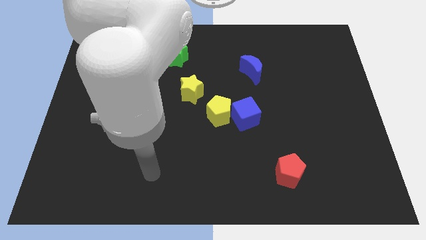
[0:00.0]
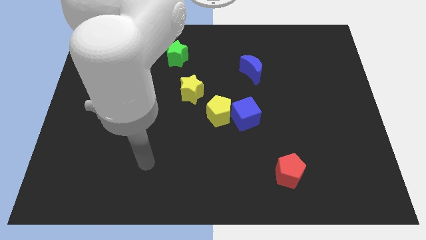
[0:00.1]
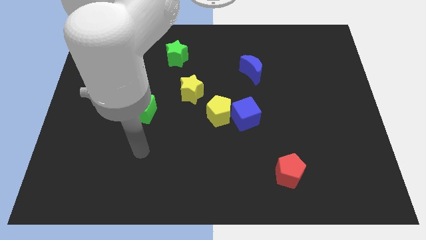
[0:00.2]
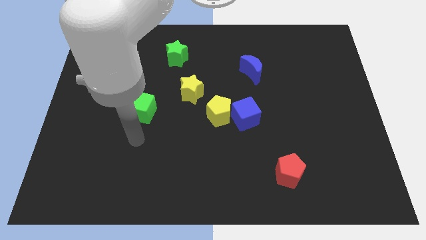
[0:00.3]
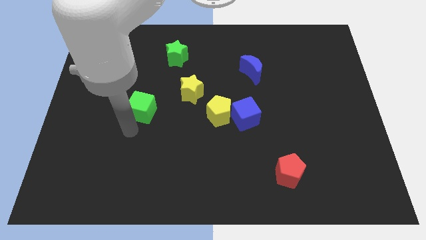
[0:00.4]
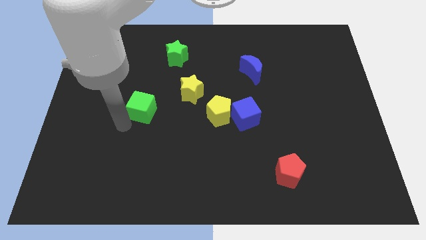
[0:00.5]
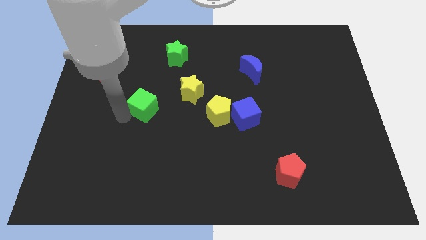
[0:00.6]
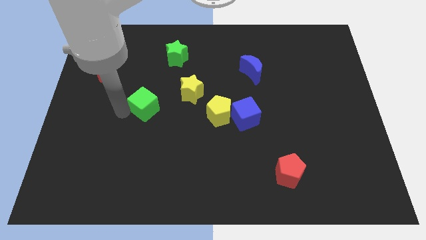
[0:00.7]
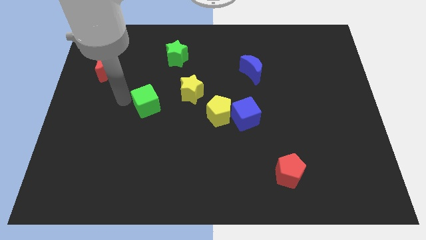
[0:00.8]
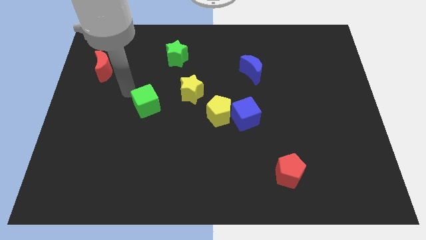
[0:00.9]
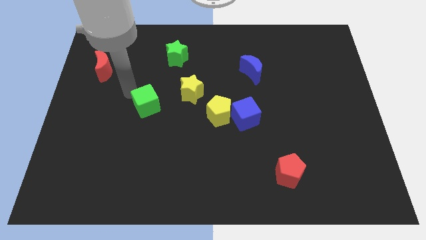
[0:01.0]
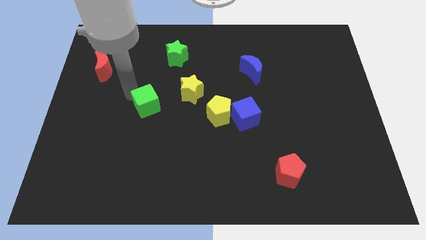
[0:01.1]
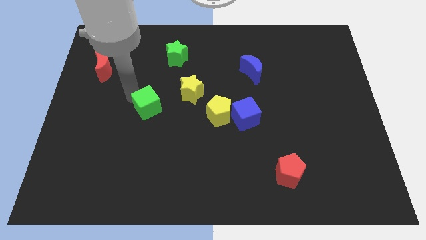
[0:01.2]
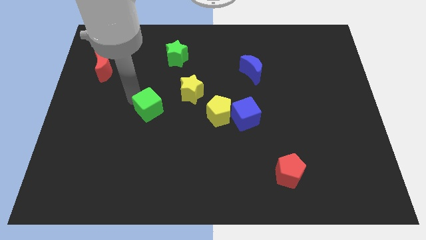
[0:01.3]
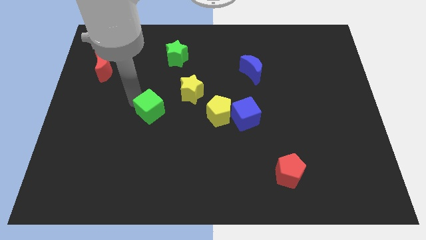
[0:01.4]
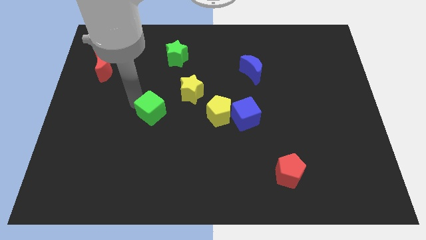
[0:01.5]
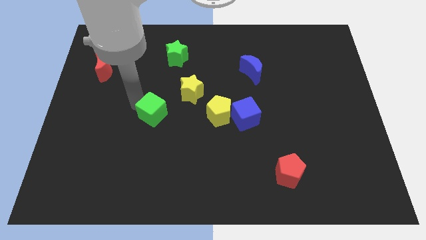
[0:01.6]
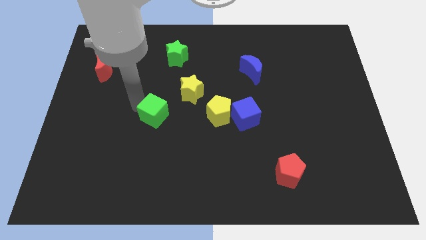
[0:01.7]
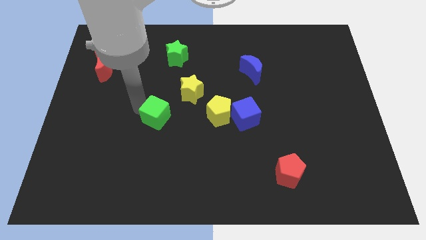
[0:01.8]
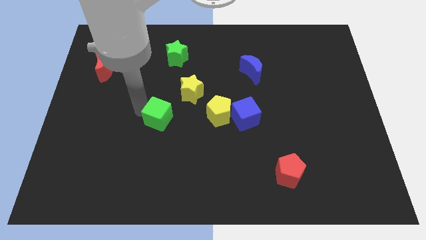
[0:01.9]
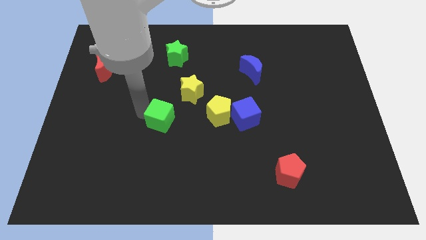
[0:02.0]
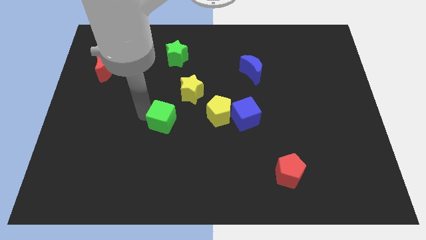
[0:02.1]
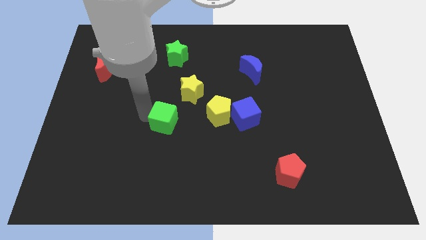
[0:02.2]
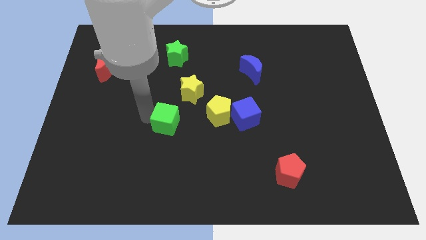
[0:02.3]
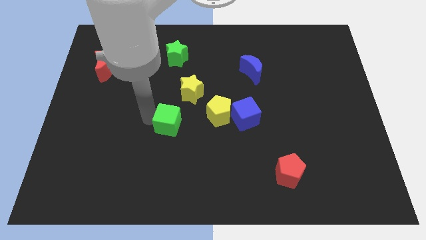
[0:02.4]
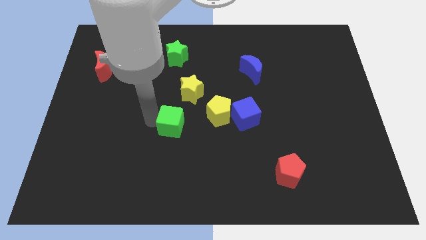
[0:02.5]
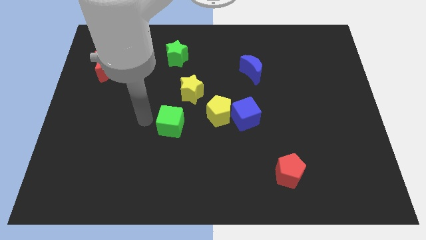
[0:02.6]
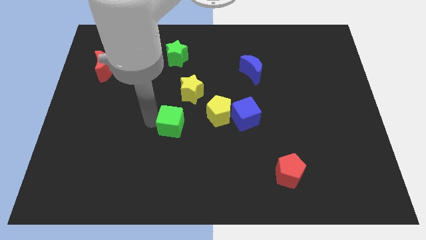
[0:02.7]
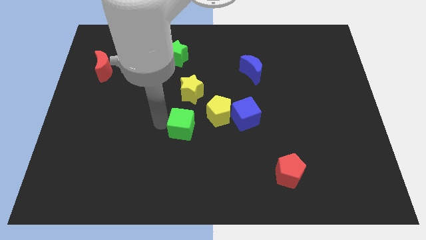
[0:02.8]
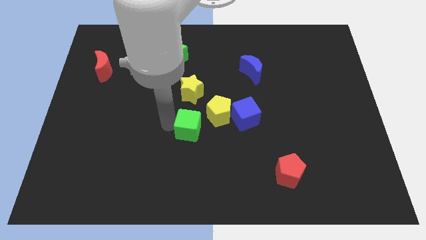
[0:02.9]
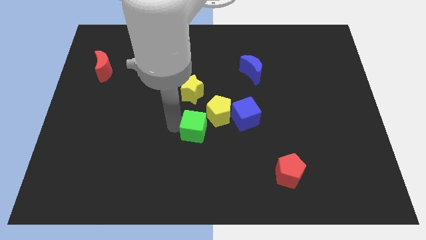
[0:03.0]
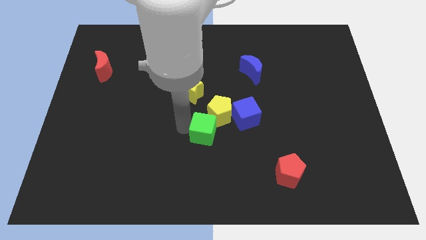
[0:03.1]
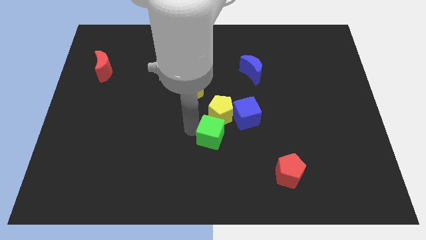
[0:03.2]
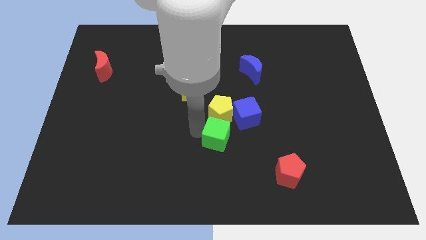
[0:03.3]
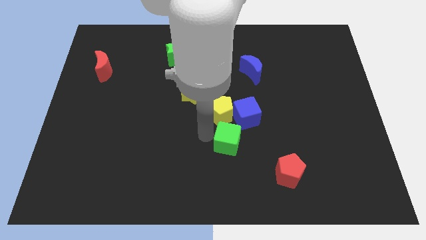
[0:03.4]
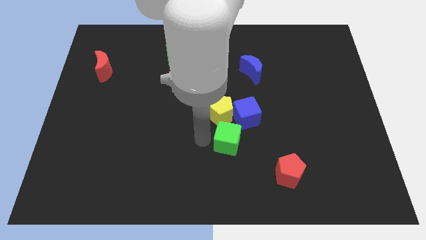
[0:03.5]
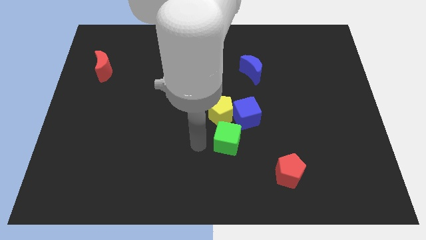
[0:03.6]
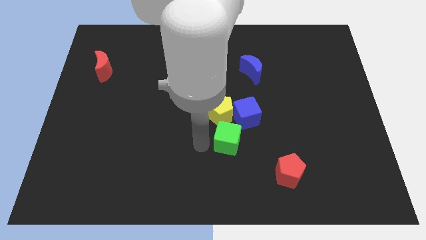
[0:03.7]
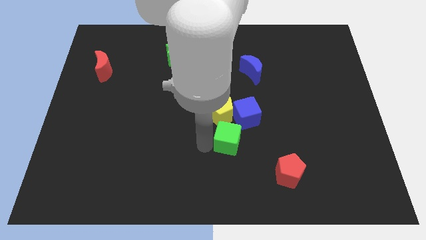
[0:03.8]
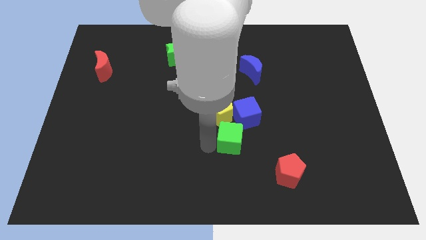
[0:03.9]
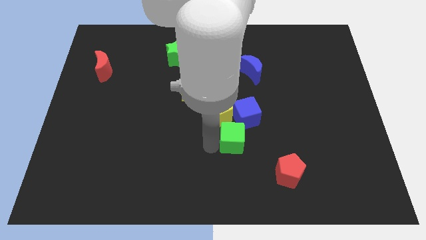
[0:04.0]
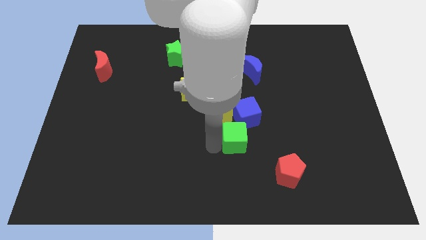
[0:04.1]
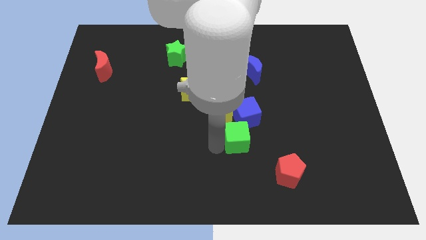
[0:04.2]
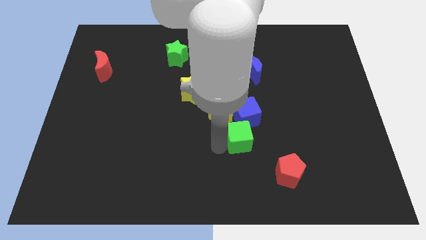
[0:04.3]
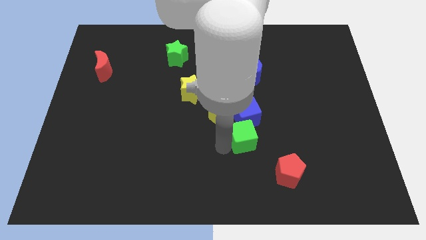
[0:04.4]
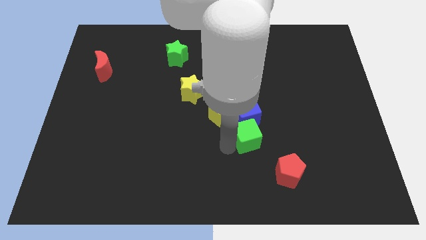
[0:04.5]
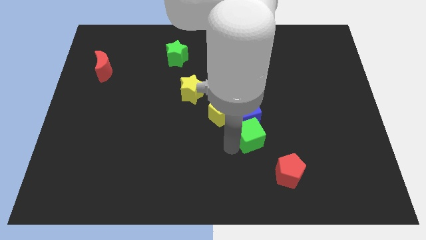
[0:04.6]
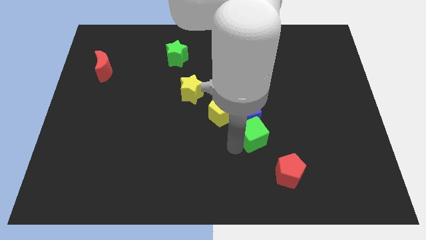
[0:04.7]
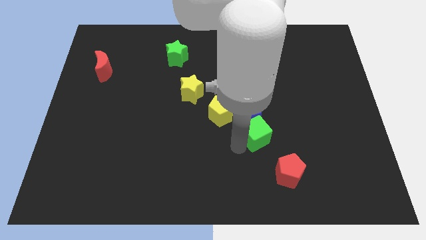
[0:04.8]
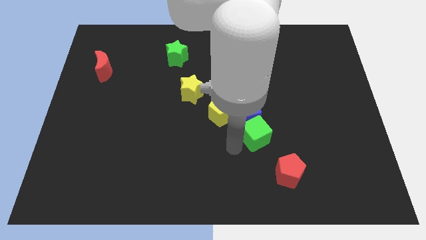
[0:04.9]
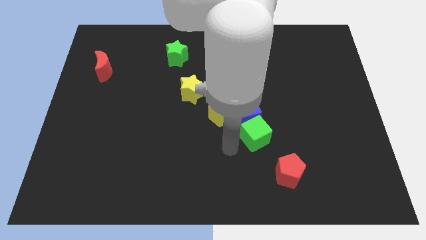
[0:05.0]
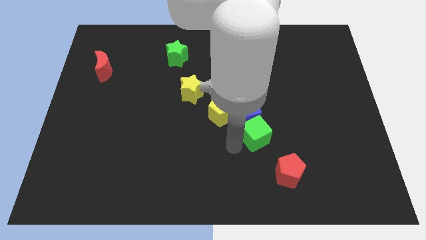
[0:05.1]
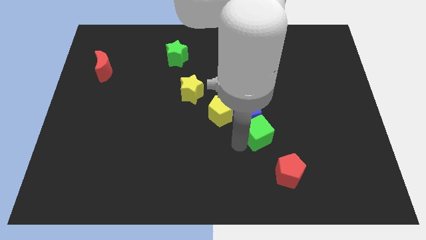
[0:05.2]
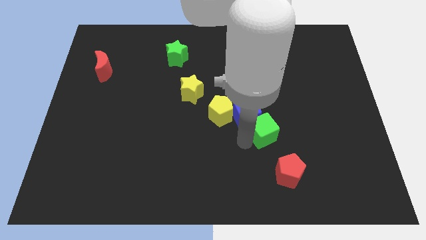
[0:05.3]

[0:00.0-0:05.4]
put the green cube to the right of the blue cube

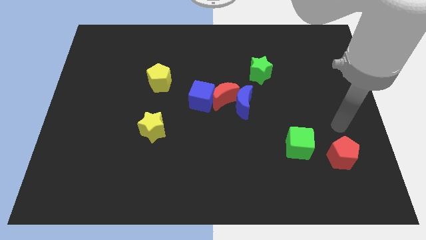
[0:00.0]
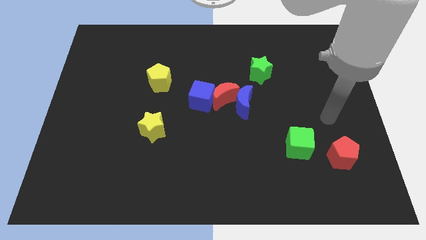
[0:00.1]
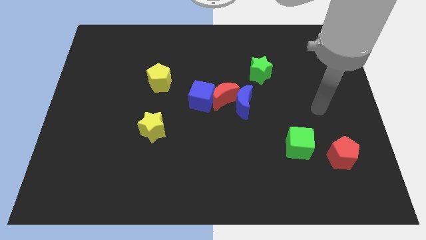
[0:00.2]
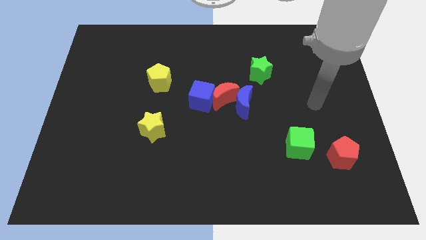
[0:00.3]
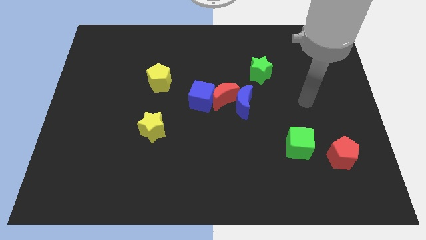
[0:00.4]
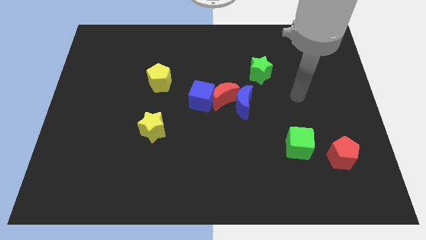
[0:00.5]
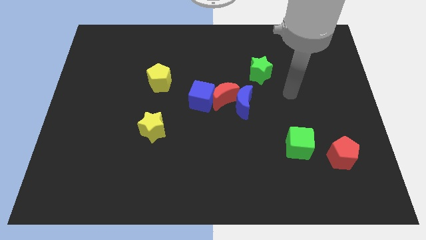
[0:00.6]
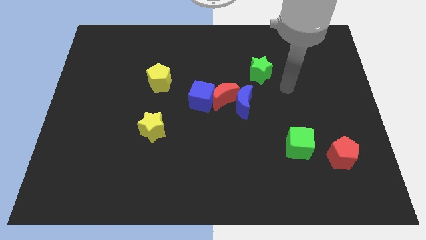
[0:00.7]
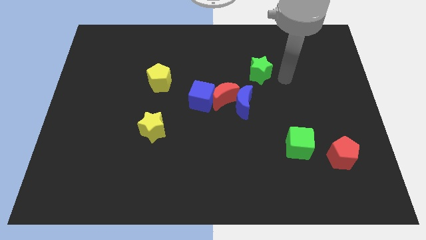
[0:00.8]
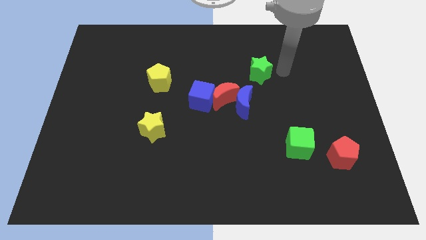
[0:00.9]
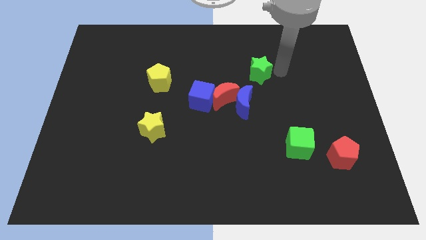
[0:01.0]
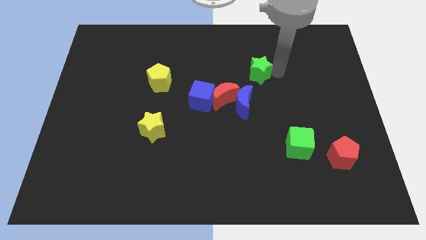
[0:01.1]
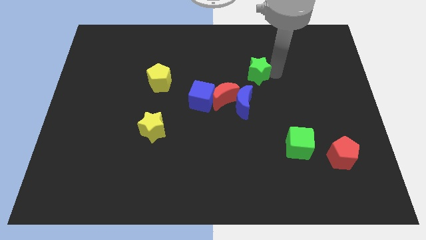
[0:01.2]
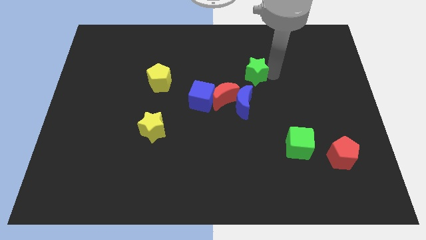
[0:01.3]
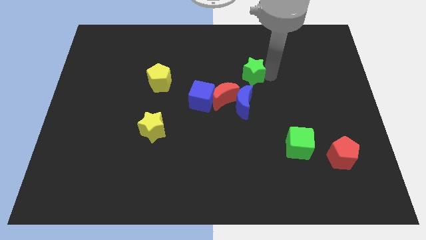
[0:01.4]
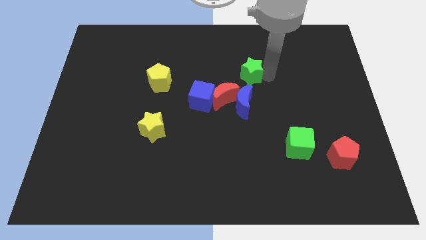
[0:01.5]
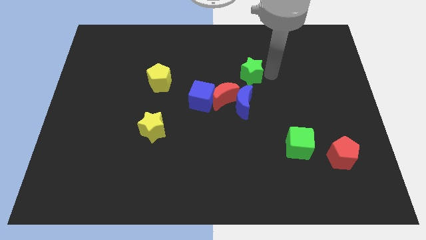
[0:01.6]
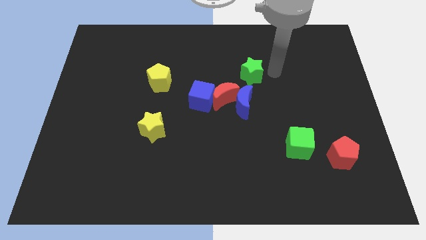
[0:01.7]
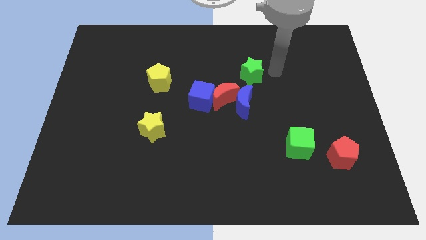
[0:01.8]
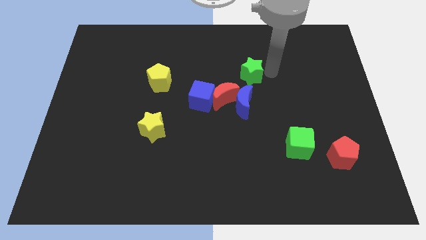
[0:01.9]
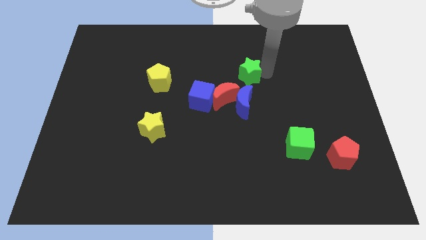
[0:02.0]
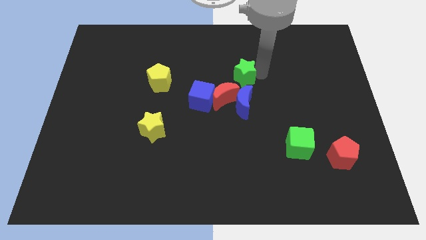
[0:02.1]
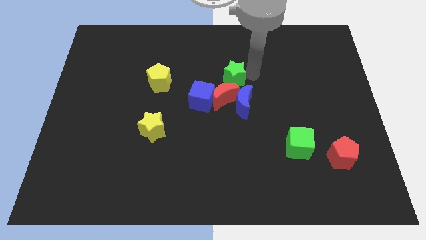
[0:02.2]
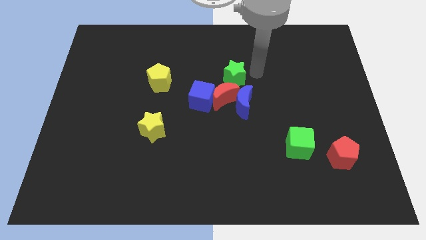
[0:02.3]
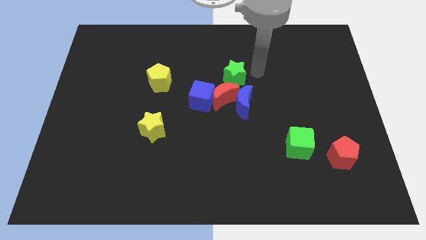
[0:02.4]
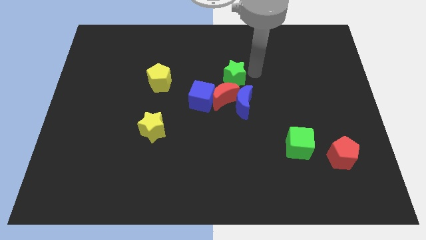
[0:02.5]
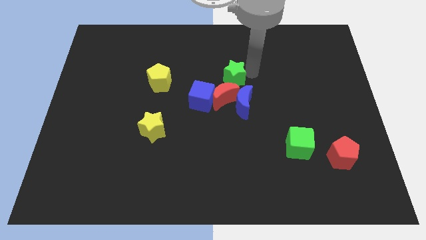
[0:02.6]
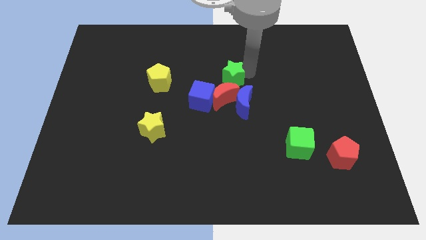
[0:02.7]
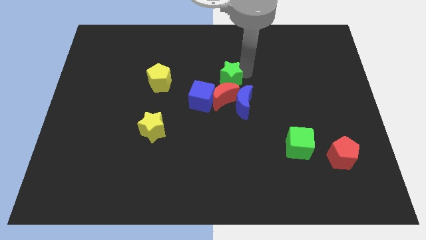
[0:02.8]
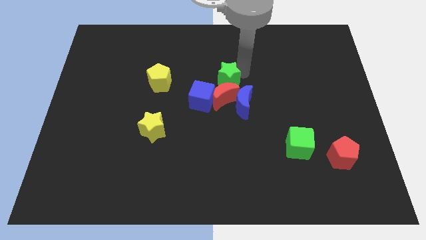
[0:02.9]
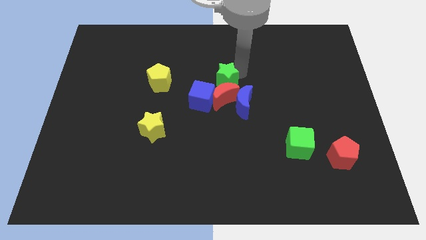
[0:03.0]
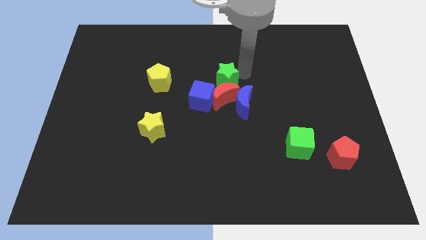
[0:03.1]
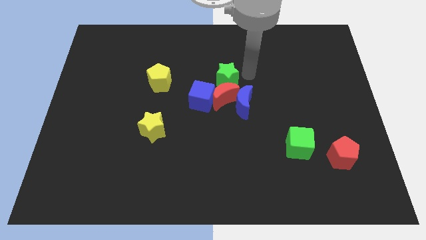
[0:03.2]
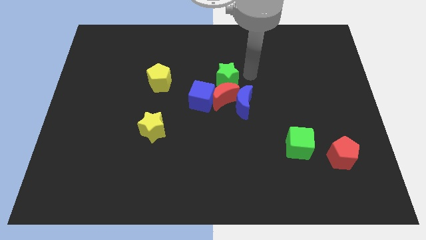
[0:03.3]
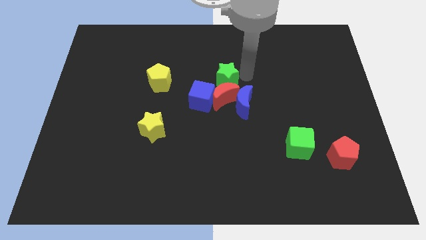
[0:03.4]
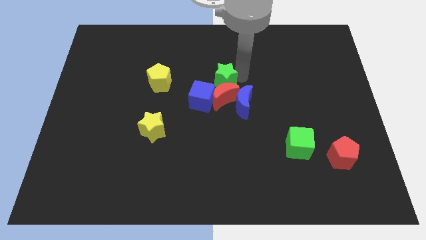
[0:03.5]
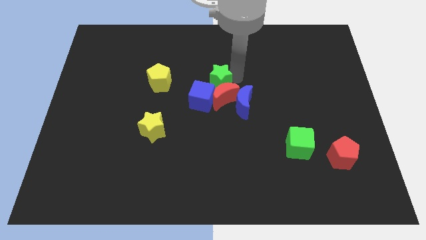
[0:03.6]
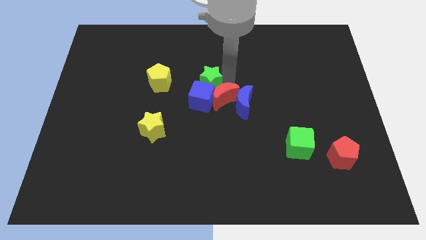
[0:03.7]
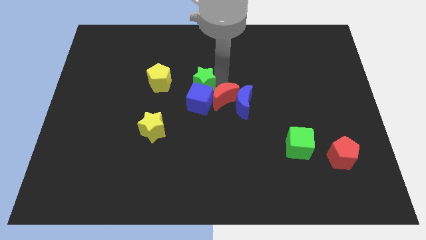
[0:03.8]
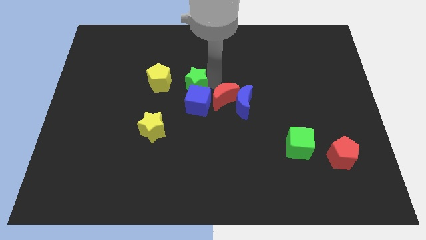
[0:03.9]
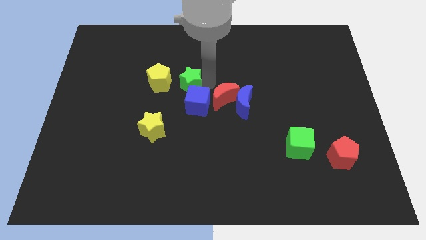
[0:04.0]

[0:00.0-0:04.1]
push the green star to the bottom right side of the yellow pentagon
